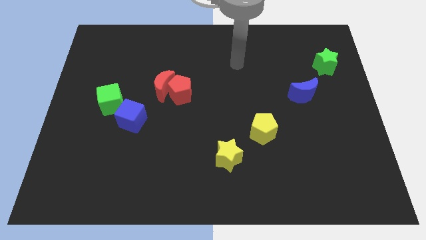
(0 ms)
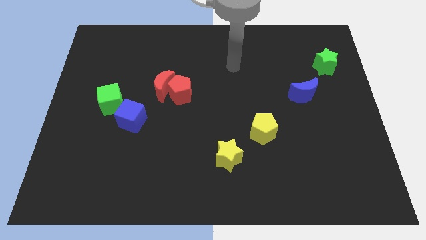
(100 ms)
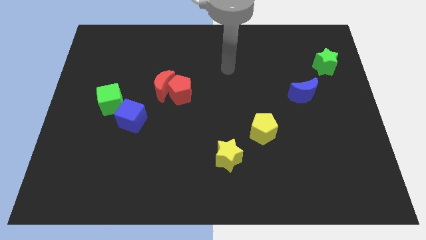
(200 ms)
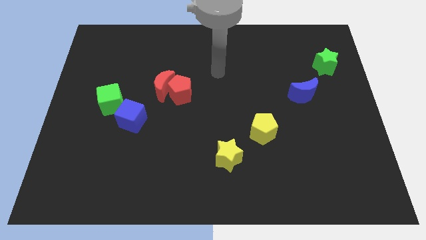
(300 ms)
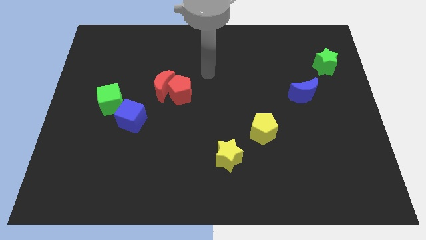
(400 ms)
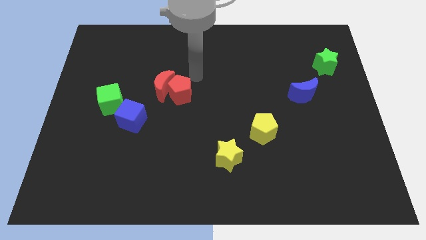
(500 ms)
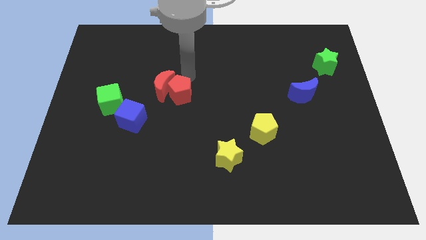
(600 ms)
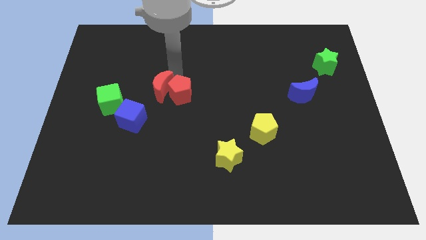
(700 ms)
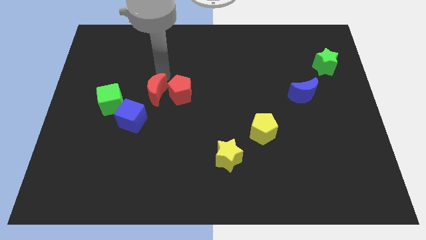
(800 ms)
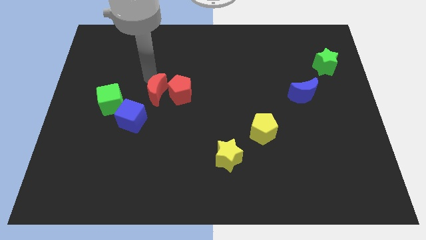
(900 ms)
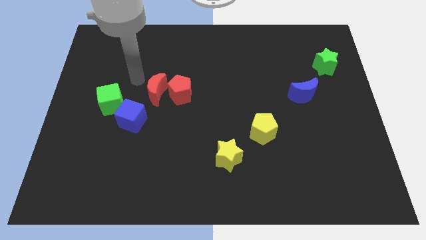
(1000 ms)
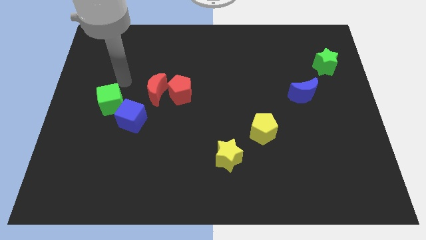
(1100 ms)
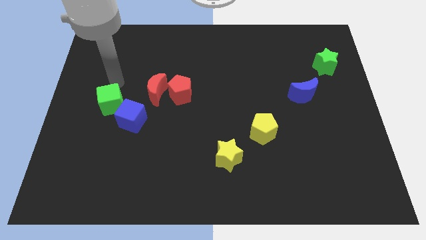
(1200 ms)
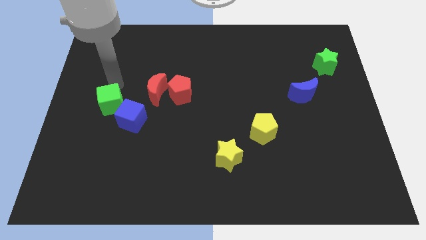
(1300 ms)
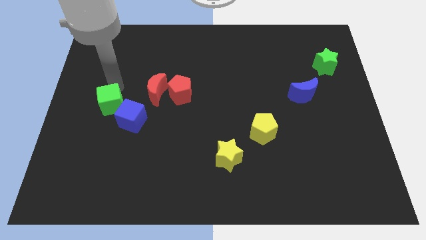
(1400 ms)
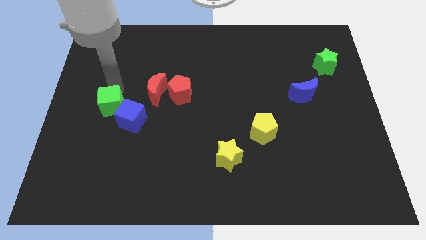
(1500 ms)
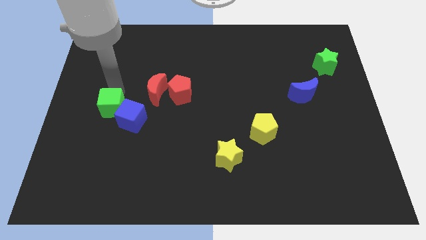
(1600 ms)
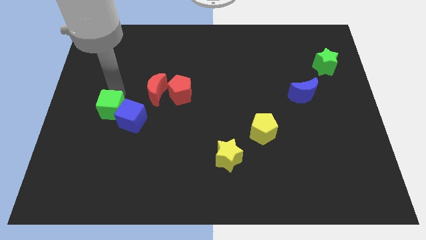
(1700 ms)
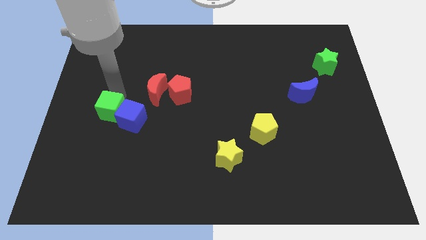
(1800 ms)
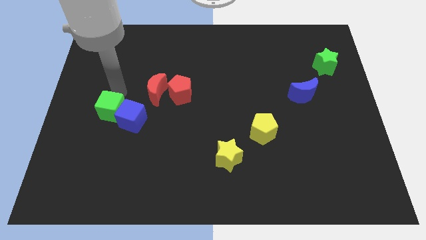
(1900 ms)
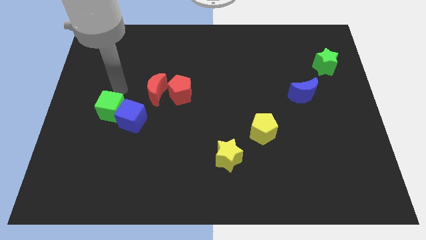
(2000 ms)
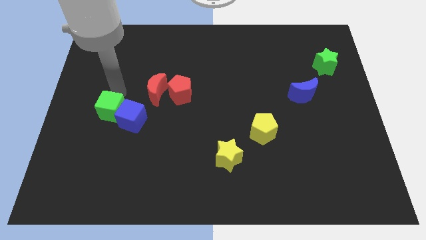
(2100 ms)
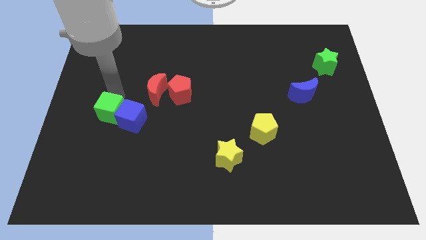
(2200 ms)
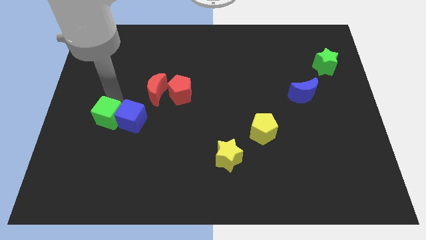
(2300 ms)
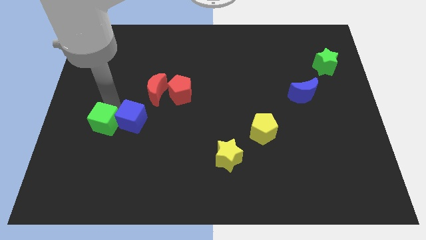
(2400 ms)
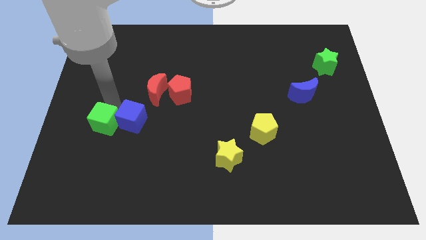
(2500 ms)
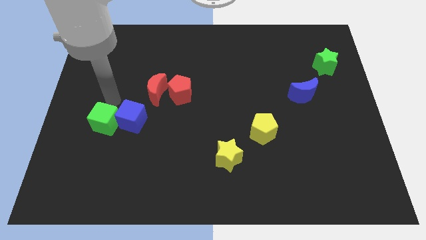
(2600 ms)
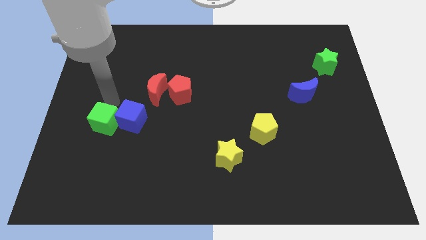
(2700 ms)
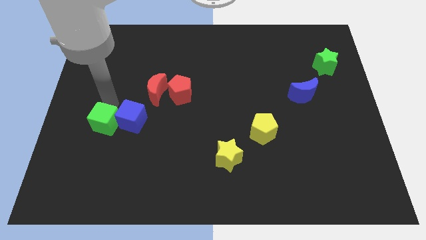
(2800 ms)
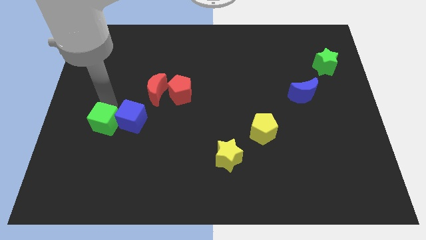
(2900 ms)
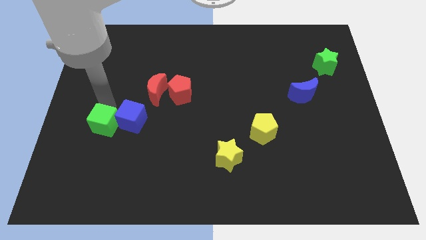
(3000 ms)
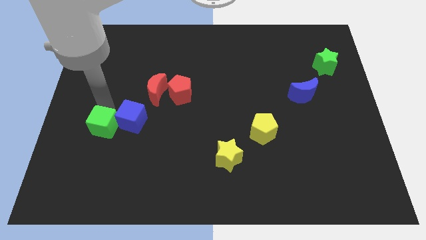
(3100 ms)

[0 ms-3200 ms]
slide the green cube down a little bit

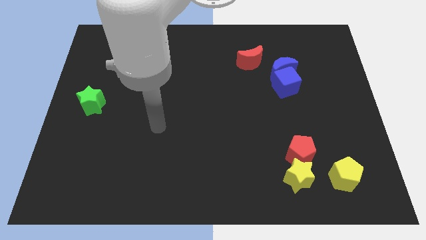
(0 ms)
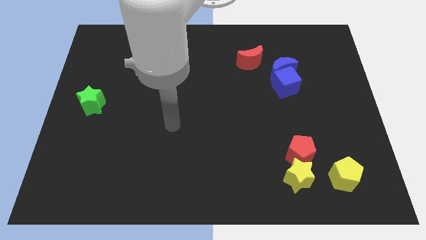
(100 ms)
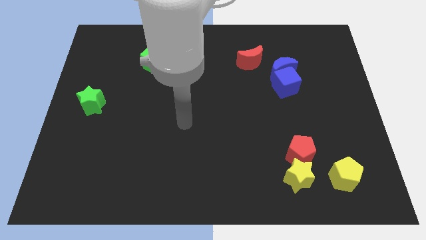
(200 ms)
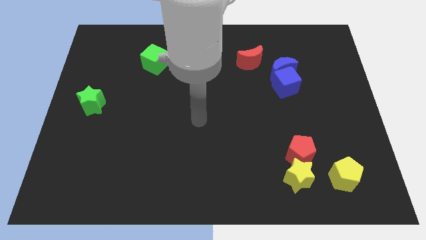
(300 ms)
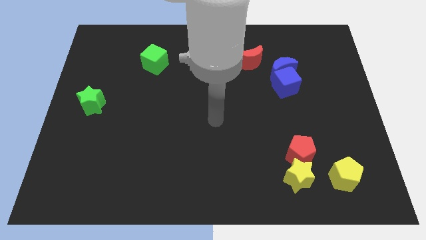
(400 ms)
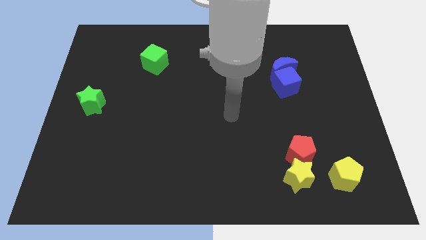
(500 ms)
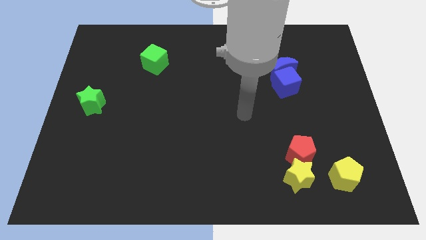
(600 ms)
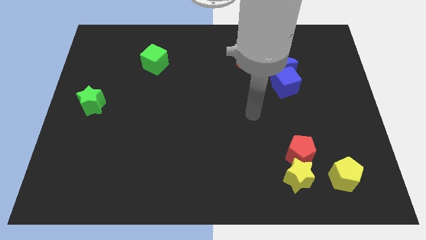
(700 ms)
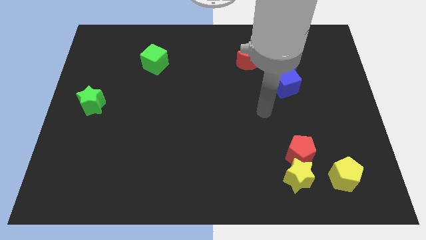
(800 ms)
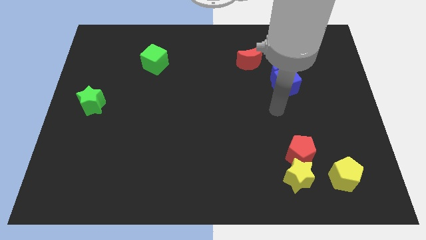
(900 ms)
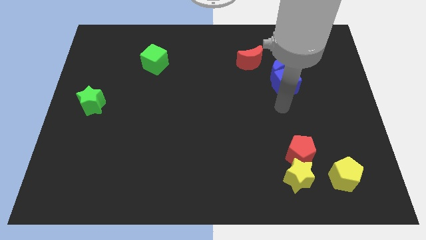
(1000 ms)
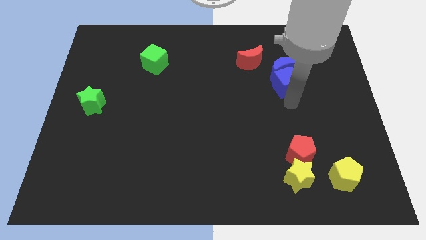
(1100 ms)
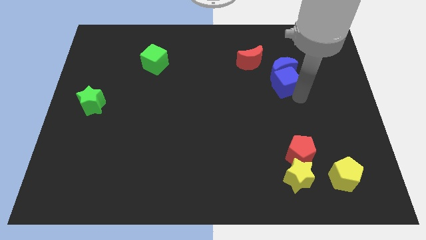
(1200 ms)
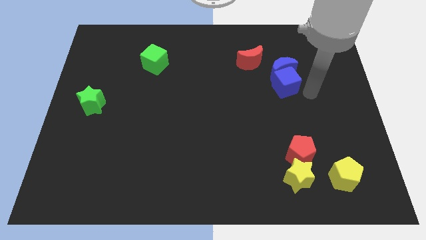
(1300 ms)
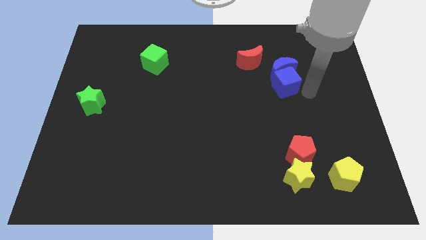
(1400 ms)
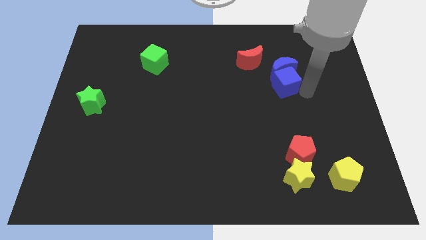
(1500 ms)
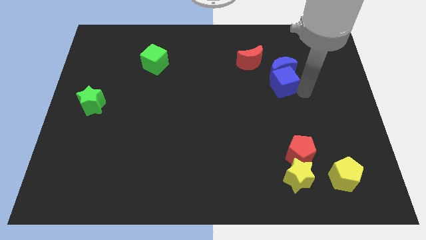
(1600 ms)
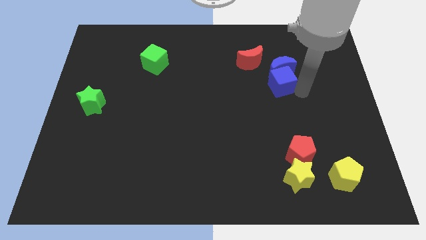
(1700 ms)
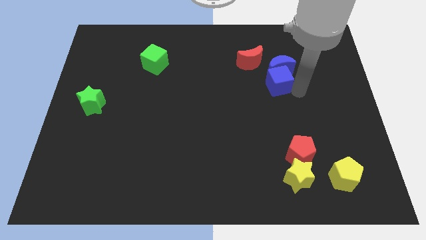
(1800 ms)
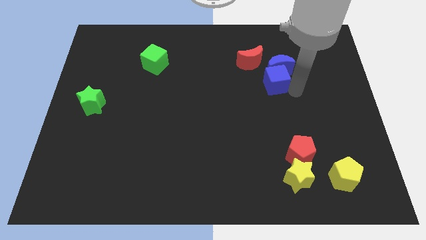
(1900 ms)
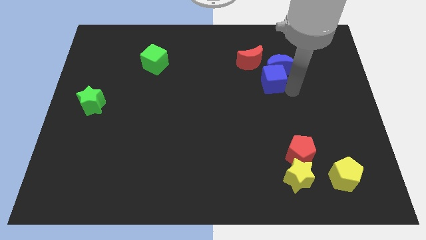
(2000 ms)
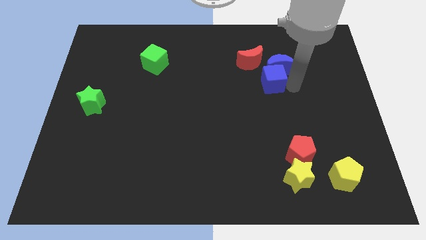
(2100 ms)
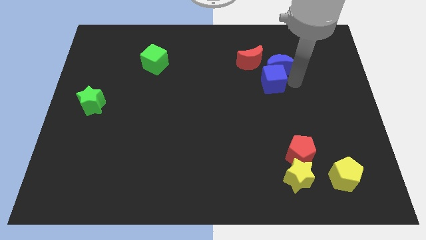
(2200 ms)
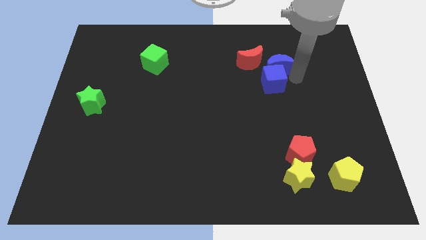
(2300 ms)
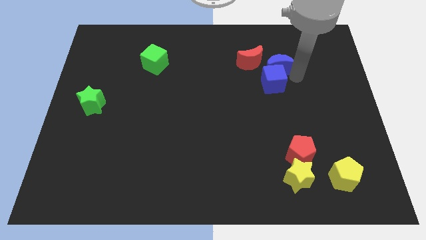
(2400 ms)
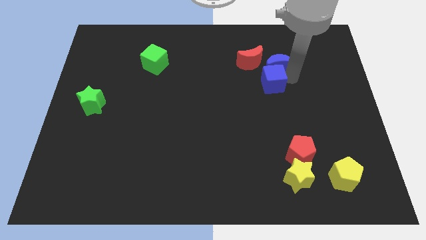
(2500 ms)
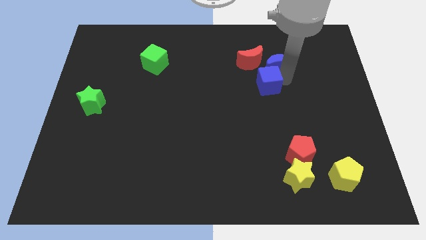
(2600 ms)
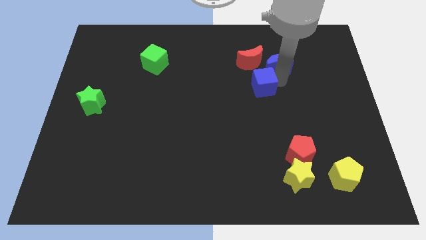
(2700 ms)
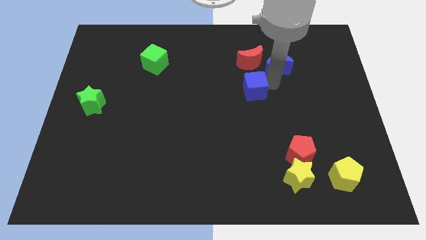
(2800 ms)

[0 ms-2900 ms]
slightly push the blue cube to the left

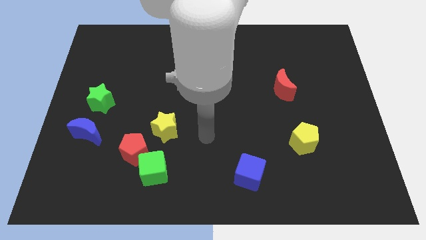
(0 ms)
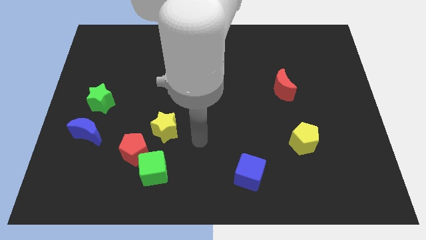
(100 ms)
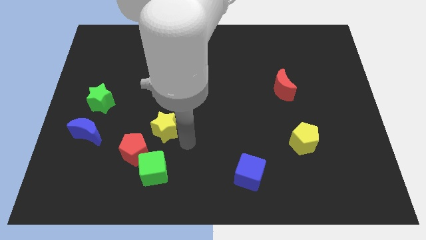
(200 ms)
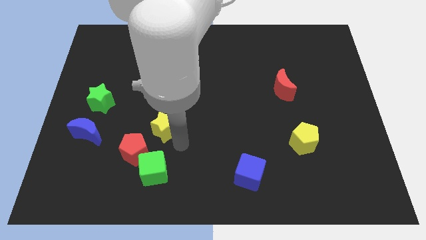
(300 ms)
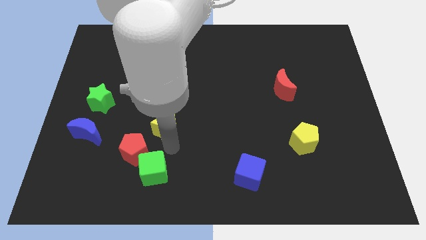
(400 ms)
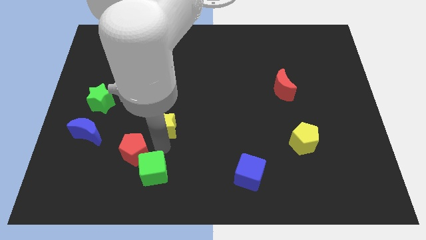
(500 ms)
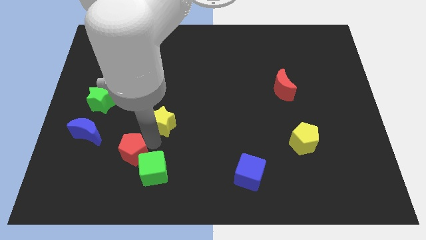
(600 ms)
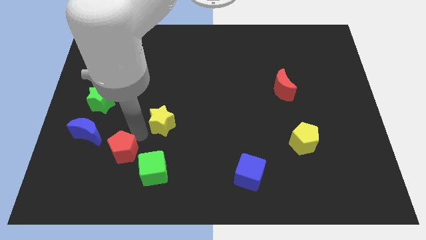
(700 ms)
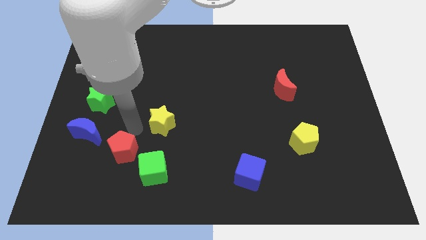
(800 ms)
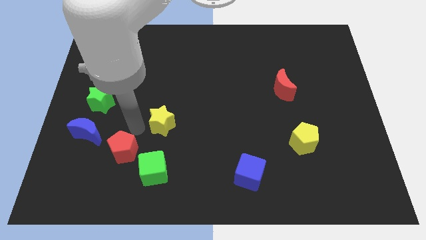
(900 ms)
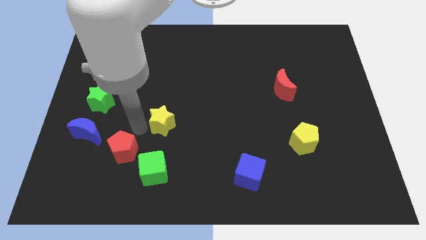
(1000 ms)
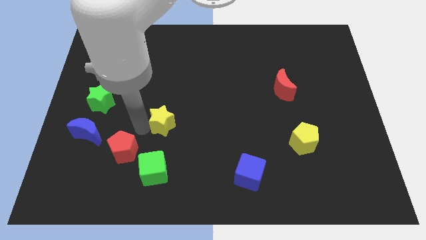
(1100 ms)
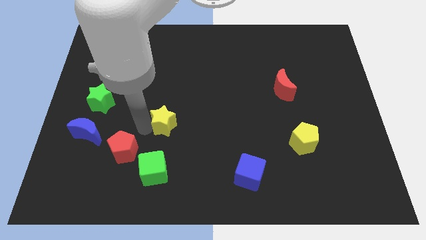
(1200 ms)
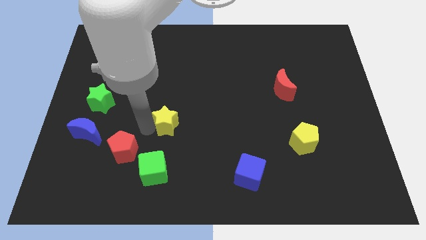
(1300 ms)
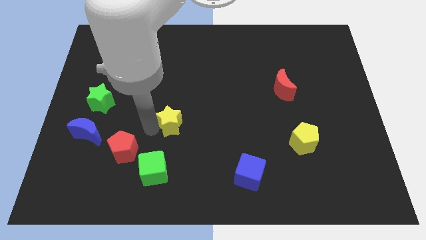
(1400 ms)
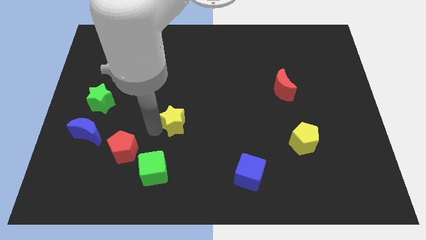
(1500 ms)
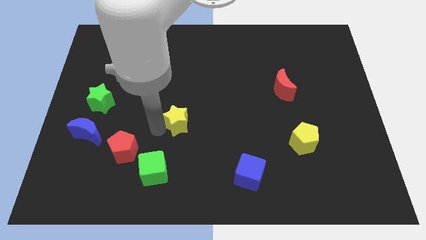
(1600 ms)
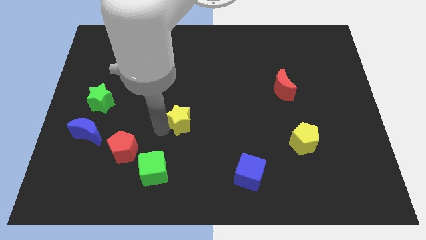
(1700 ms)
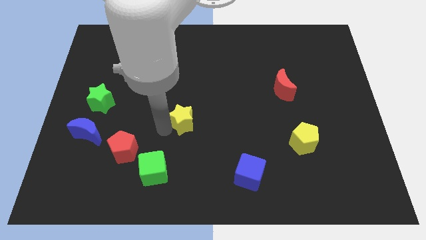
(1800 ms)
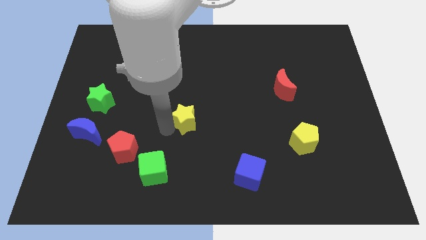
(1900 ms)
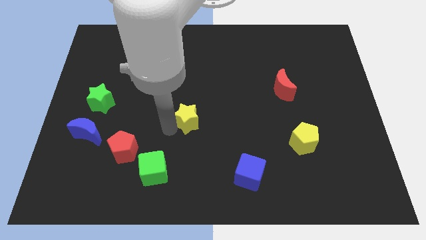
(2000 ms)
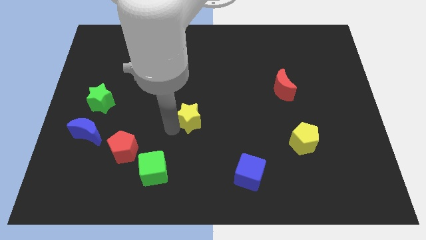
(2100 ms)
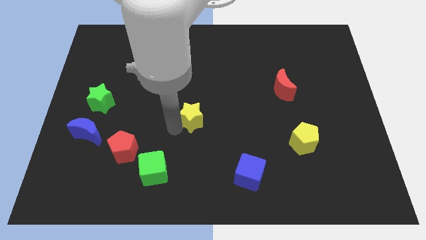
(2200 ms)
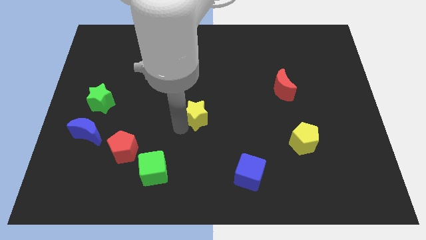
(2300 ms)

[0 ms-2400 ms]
slightly push the yellow star upwards and right diagonally
